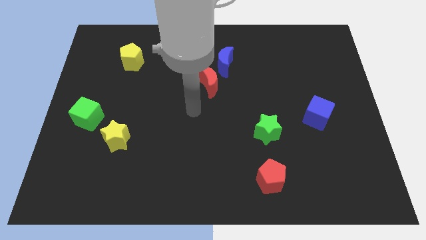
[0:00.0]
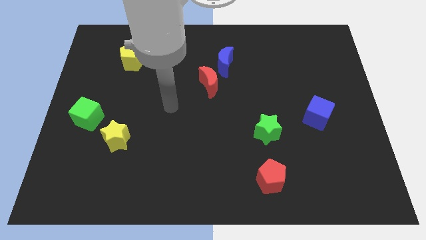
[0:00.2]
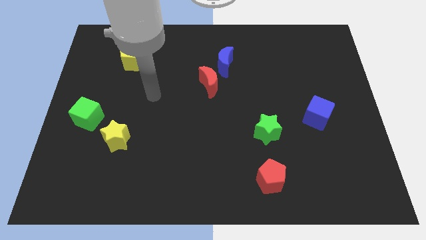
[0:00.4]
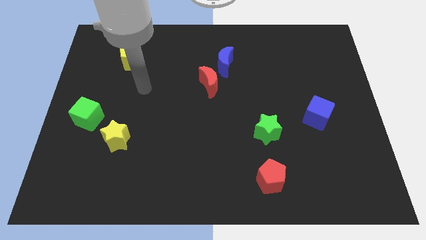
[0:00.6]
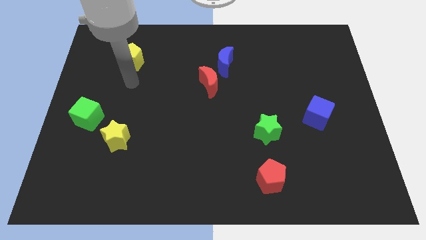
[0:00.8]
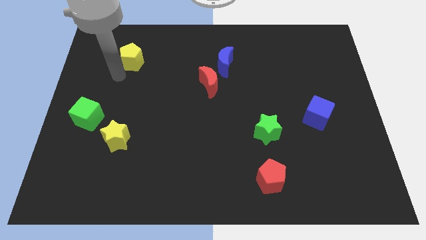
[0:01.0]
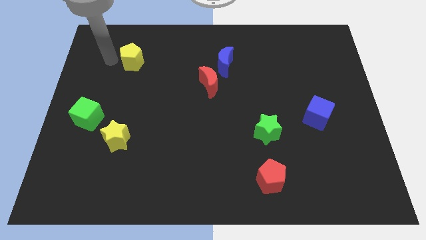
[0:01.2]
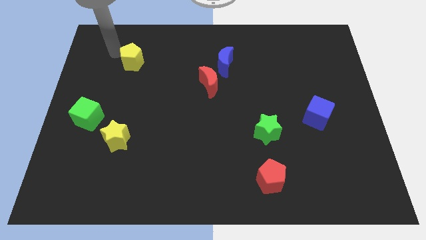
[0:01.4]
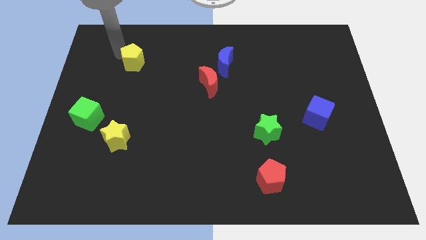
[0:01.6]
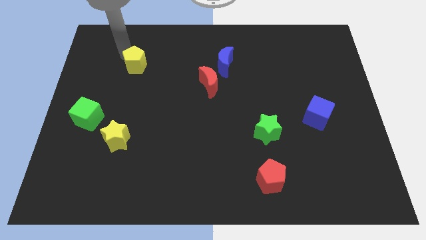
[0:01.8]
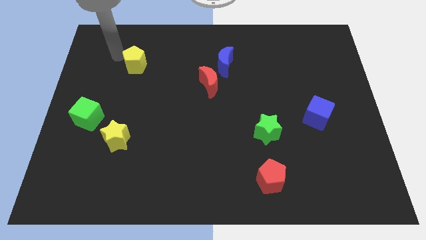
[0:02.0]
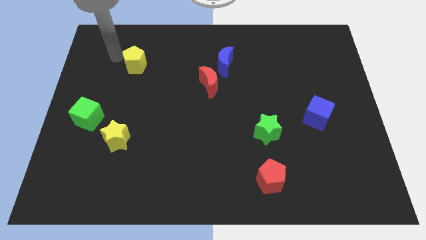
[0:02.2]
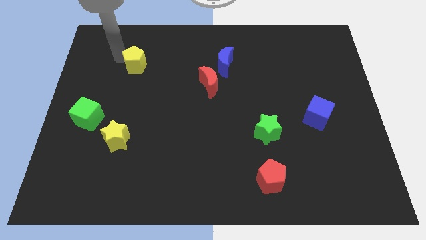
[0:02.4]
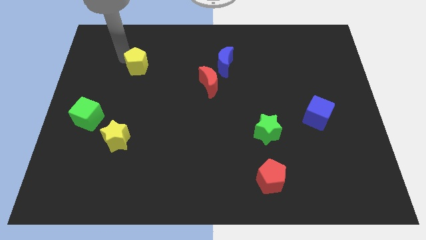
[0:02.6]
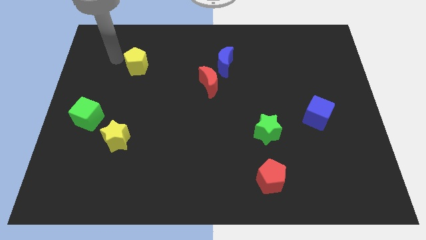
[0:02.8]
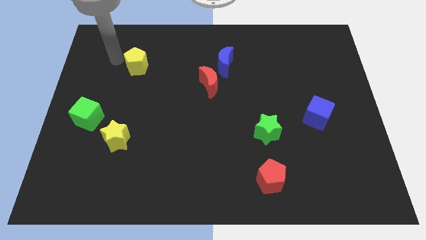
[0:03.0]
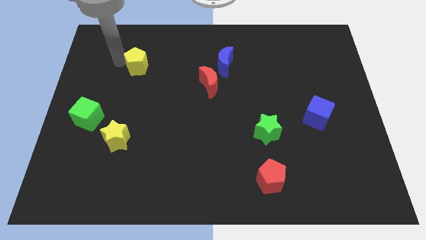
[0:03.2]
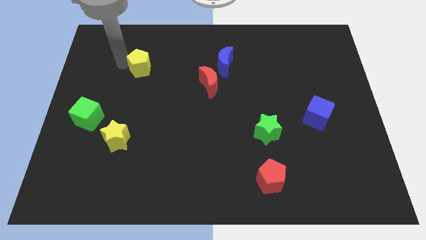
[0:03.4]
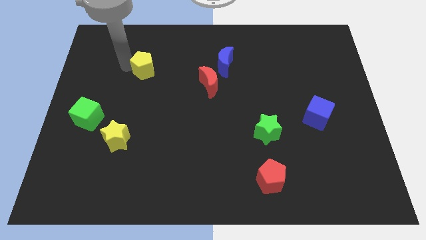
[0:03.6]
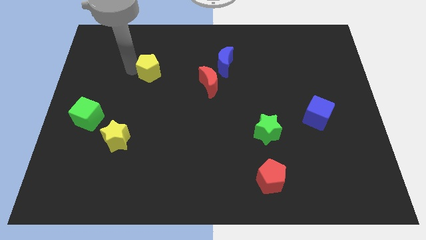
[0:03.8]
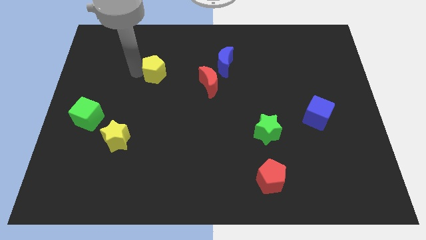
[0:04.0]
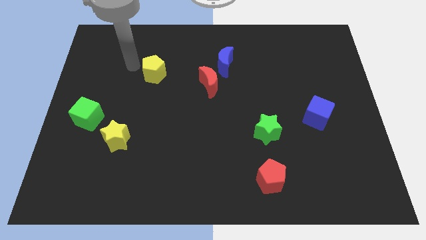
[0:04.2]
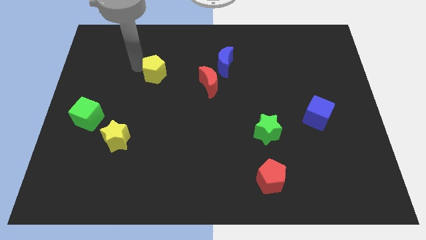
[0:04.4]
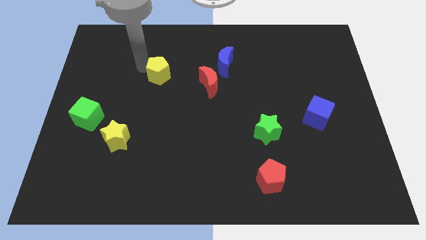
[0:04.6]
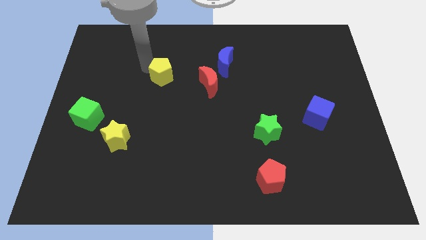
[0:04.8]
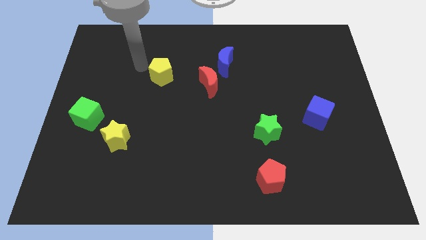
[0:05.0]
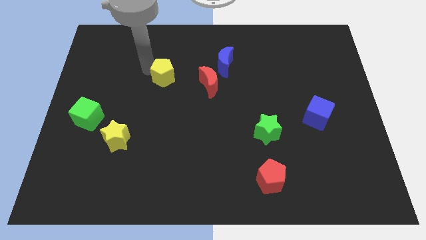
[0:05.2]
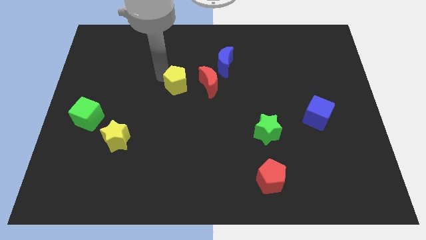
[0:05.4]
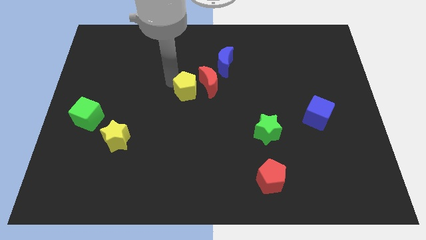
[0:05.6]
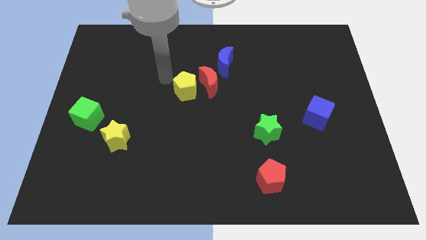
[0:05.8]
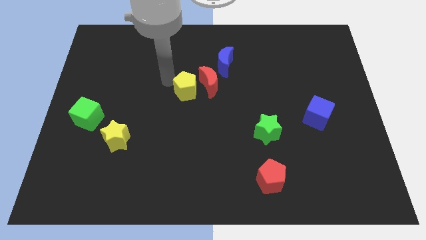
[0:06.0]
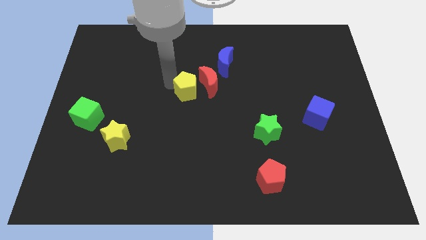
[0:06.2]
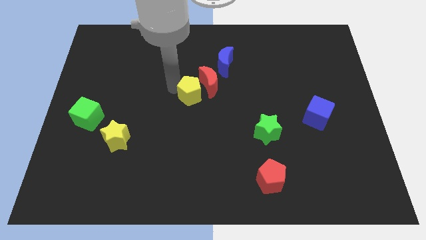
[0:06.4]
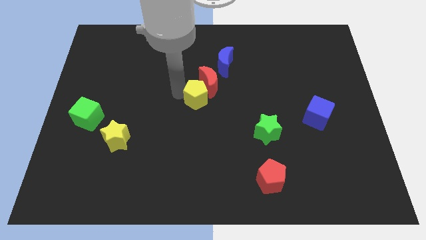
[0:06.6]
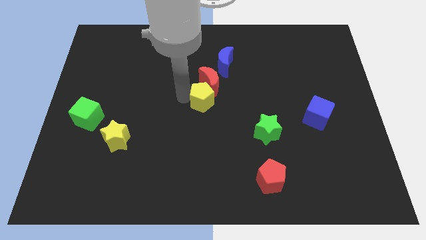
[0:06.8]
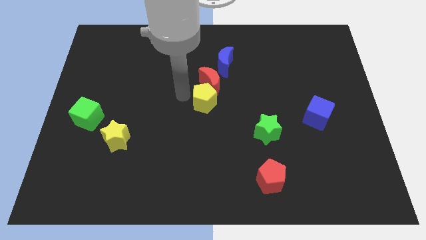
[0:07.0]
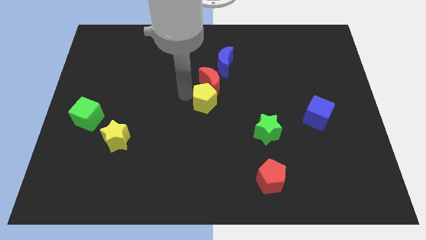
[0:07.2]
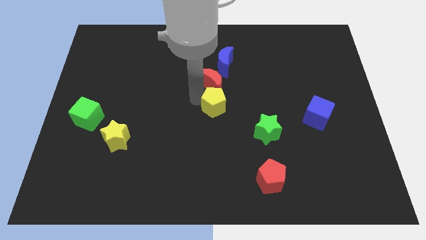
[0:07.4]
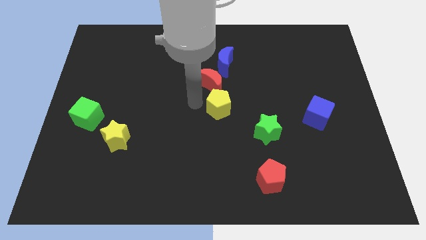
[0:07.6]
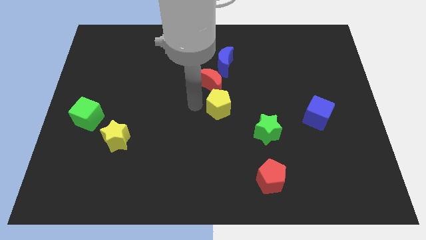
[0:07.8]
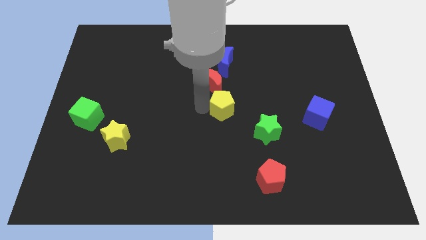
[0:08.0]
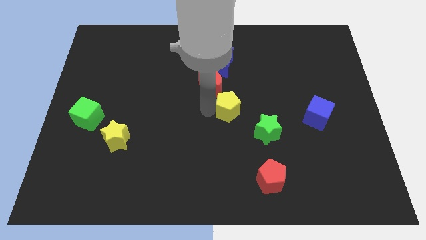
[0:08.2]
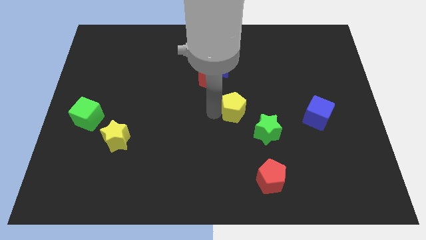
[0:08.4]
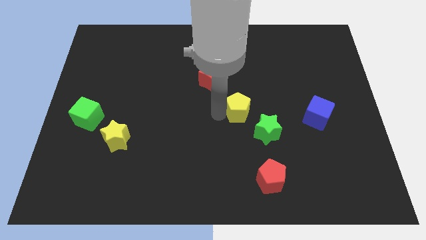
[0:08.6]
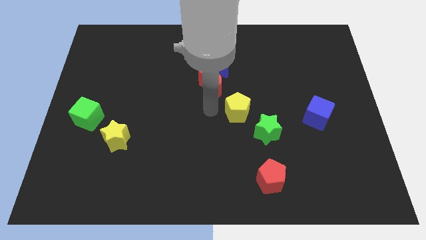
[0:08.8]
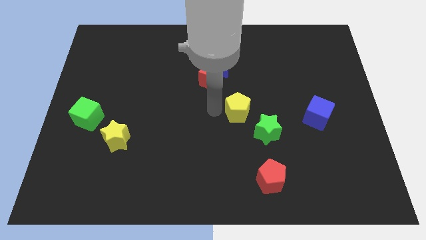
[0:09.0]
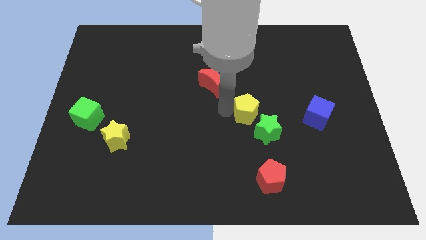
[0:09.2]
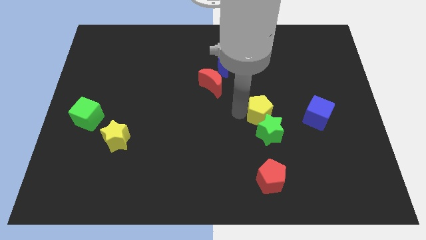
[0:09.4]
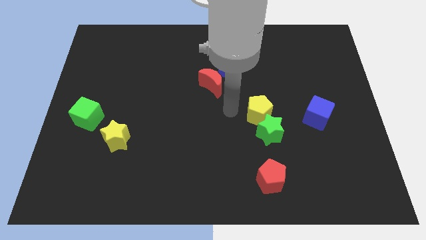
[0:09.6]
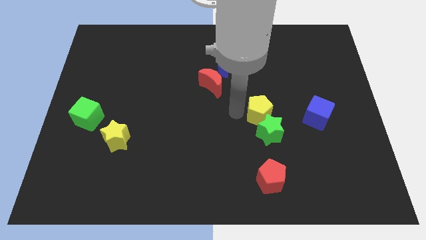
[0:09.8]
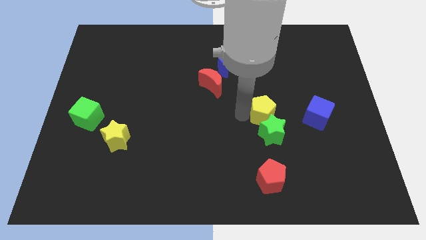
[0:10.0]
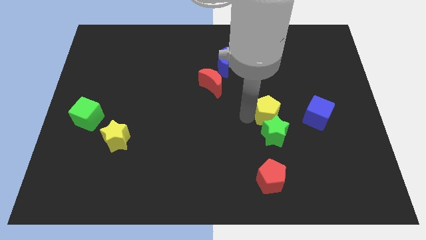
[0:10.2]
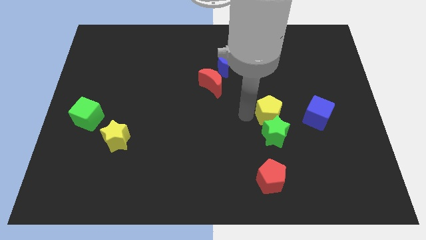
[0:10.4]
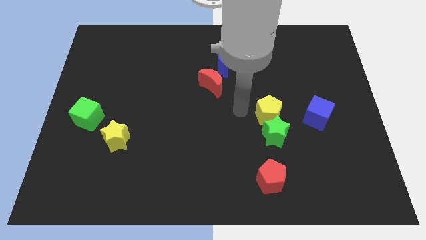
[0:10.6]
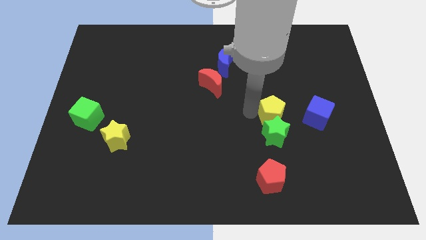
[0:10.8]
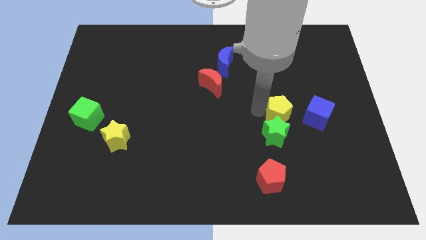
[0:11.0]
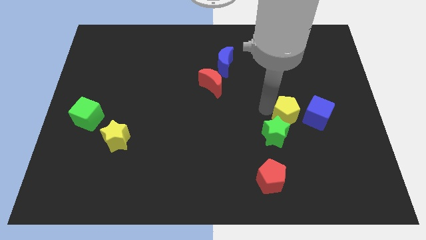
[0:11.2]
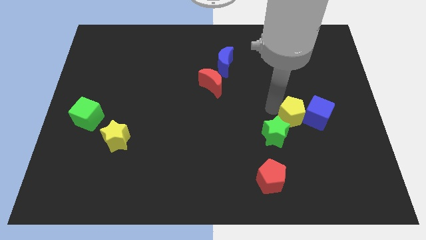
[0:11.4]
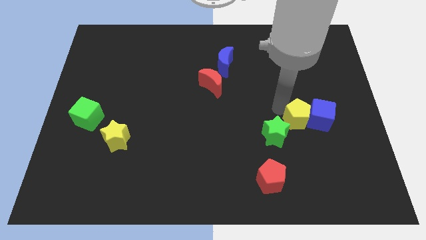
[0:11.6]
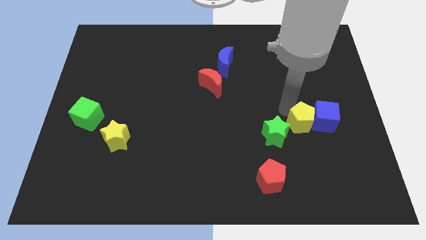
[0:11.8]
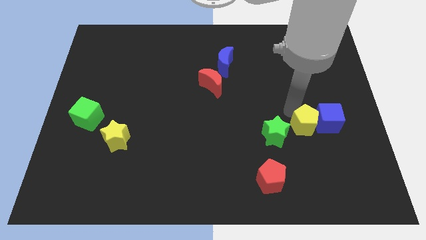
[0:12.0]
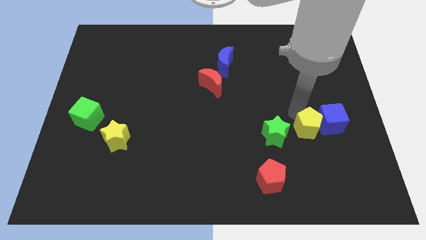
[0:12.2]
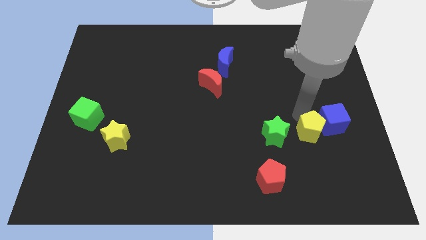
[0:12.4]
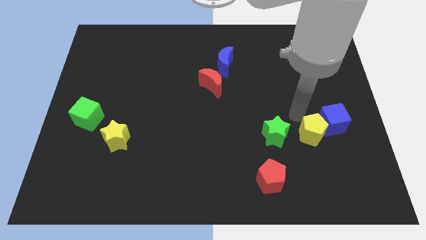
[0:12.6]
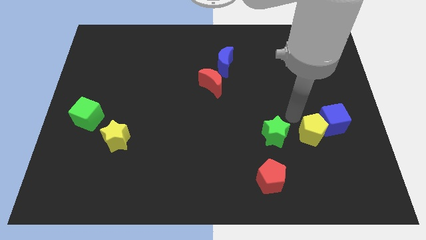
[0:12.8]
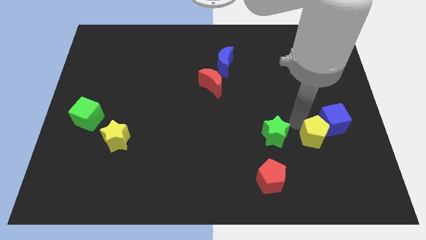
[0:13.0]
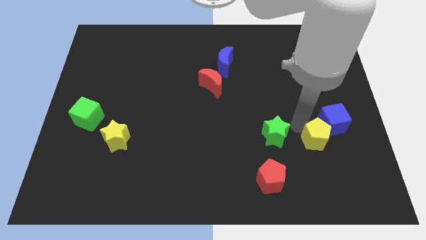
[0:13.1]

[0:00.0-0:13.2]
put the yellow pentagon below the blue cube

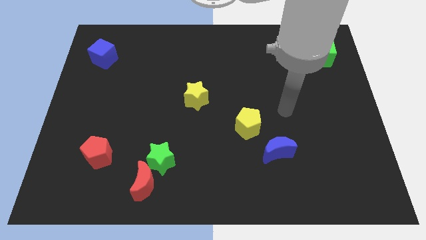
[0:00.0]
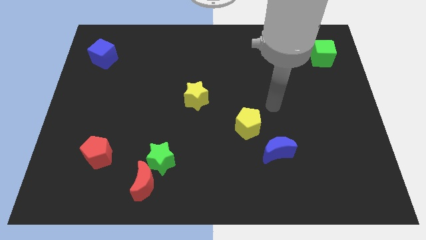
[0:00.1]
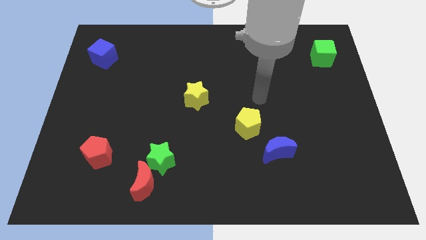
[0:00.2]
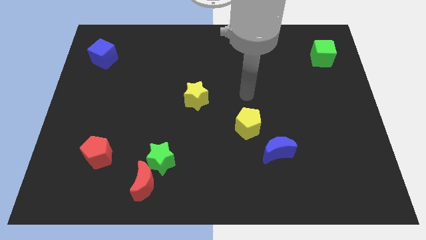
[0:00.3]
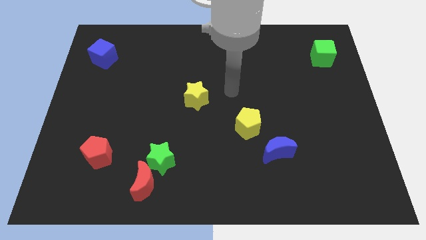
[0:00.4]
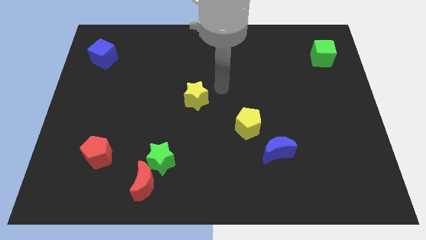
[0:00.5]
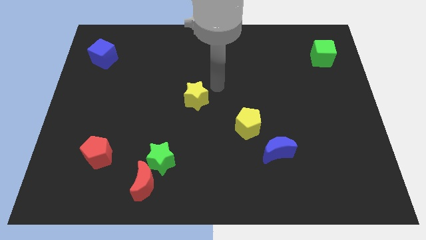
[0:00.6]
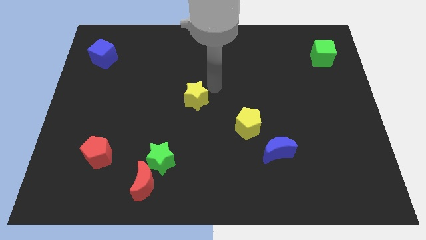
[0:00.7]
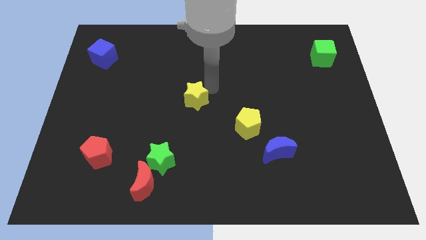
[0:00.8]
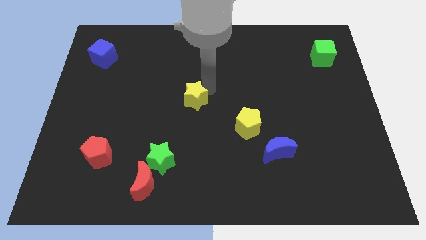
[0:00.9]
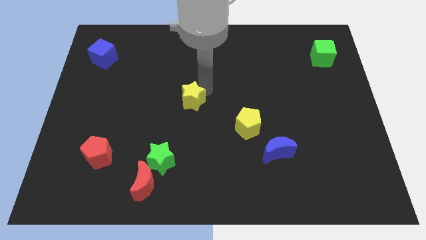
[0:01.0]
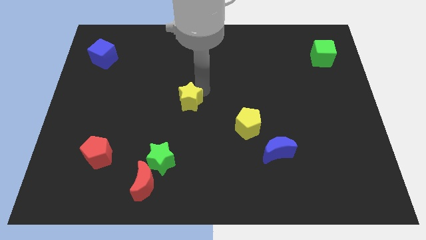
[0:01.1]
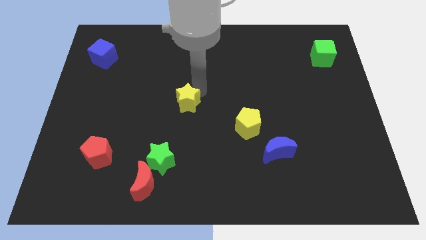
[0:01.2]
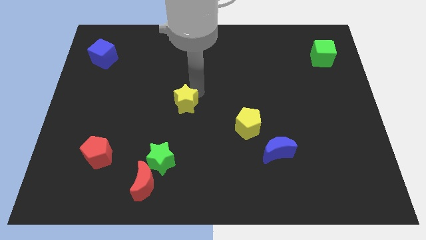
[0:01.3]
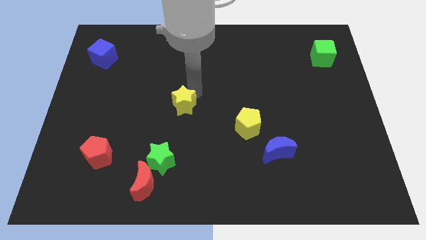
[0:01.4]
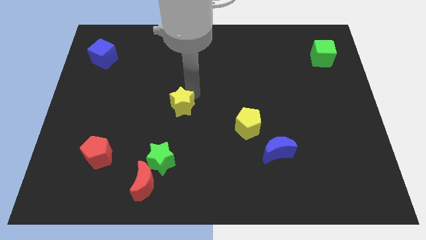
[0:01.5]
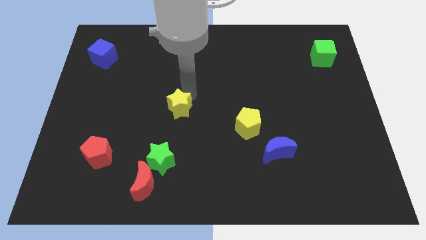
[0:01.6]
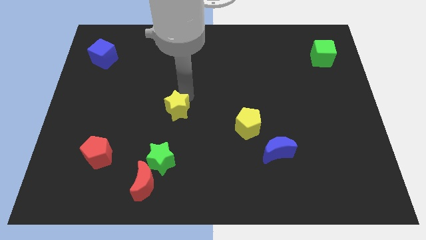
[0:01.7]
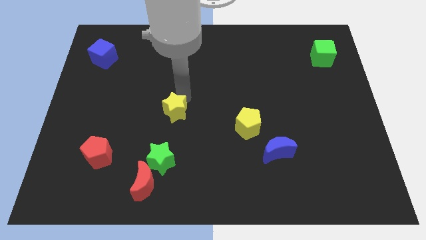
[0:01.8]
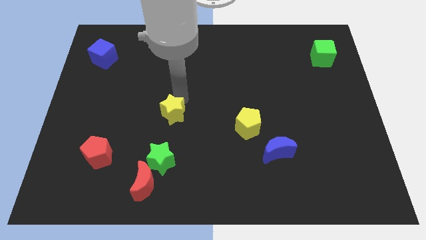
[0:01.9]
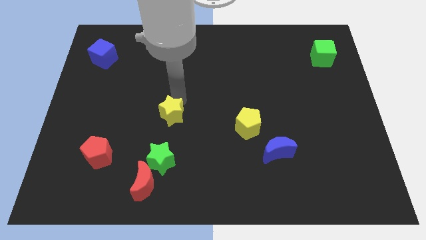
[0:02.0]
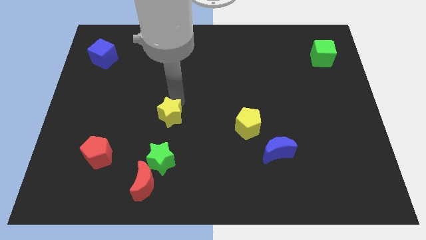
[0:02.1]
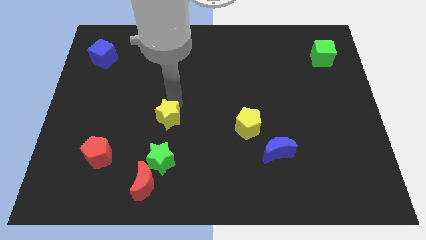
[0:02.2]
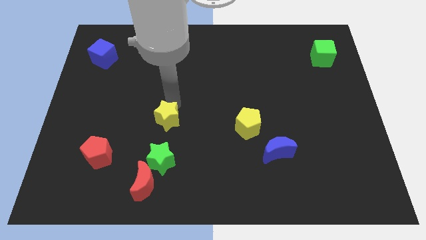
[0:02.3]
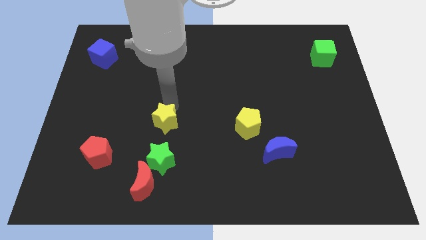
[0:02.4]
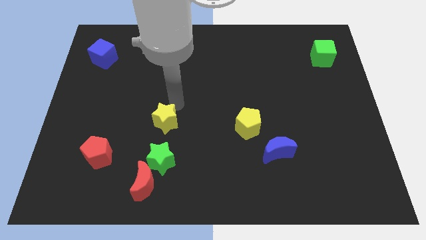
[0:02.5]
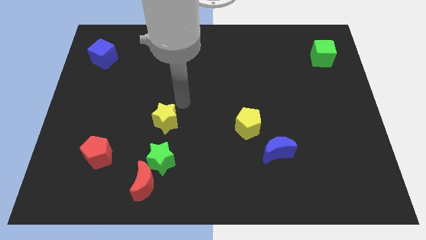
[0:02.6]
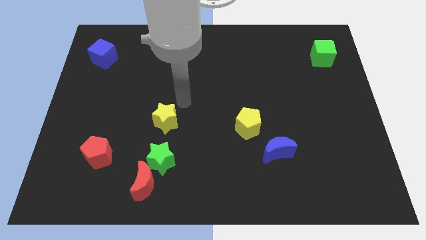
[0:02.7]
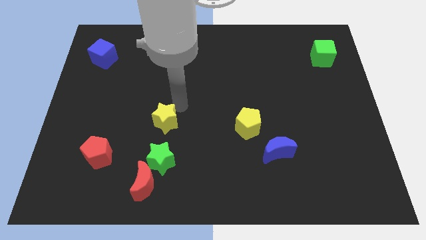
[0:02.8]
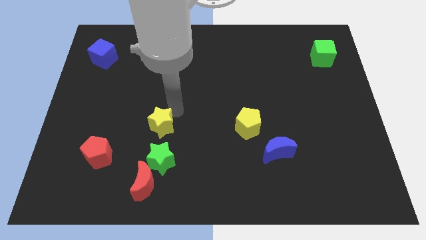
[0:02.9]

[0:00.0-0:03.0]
slide the yellow star above the red moon
